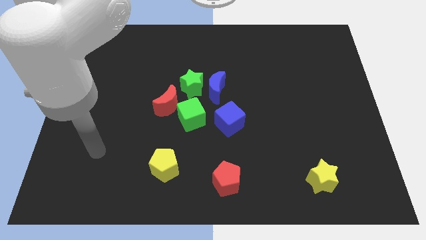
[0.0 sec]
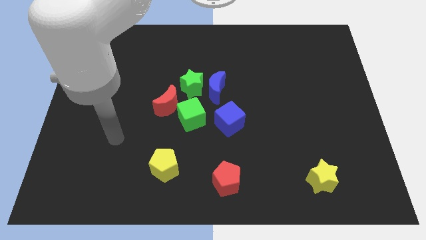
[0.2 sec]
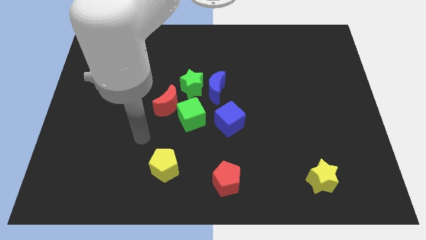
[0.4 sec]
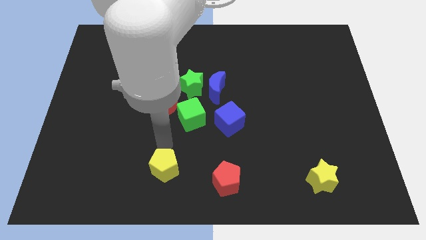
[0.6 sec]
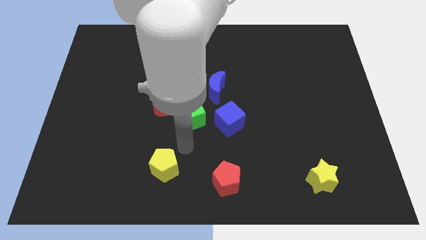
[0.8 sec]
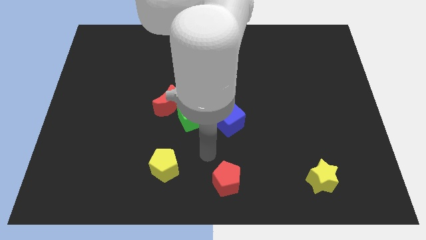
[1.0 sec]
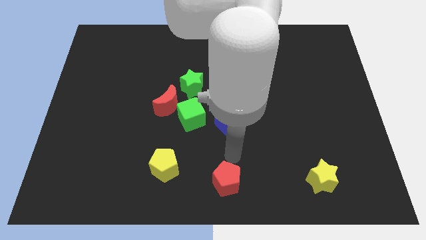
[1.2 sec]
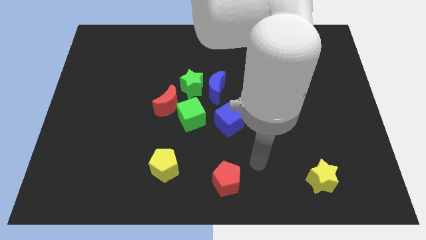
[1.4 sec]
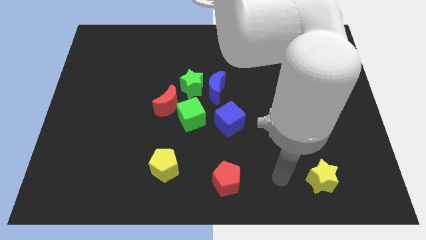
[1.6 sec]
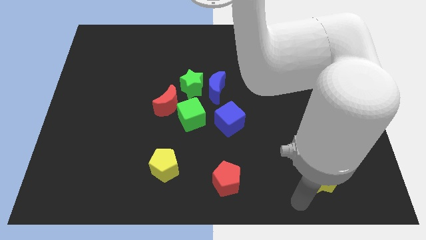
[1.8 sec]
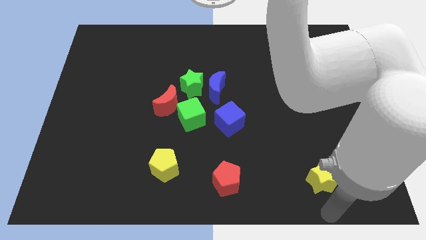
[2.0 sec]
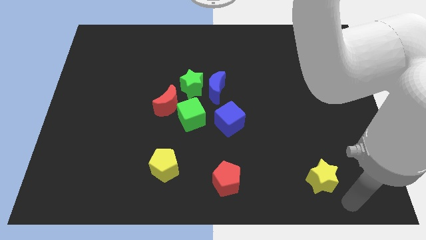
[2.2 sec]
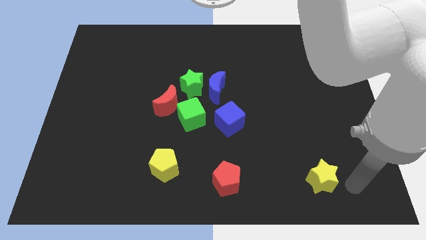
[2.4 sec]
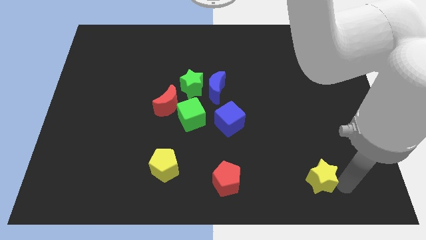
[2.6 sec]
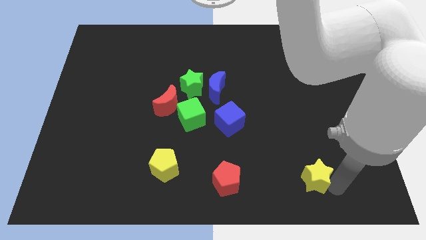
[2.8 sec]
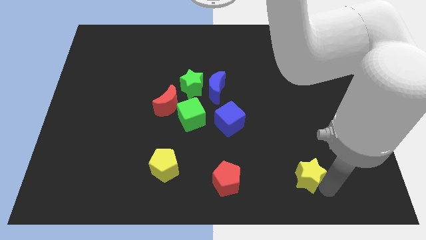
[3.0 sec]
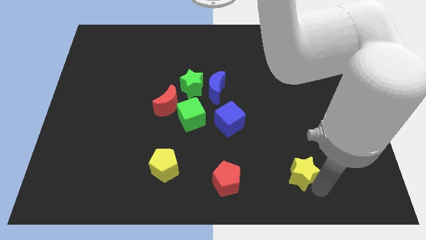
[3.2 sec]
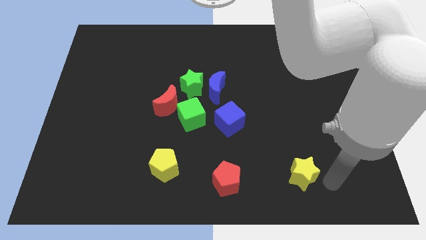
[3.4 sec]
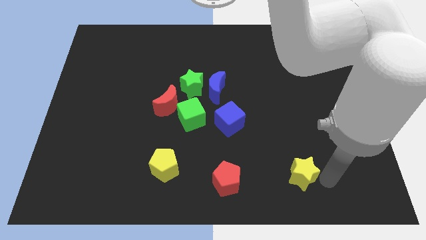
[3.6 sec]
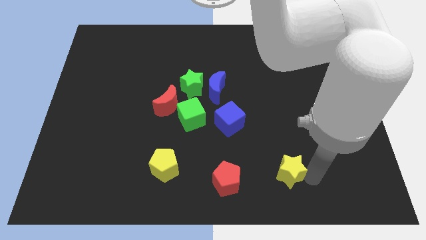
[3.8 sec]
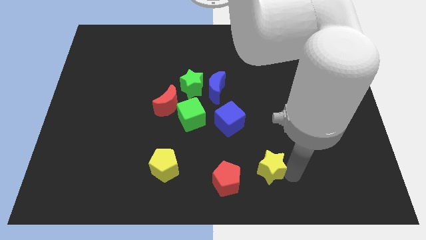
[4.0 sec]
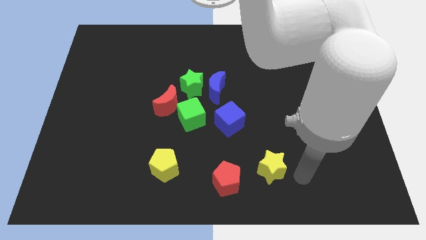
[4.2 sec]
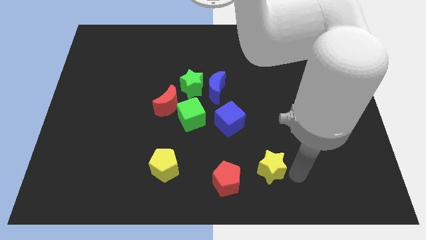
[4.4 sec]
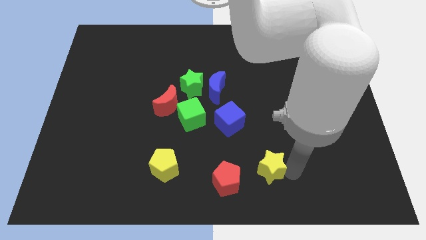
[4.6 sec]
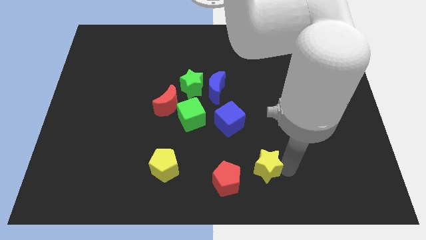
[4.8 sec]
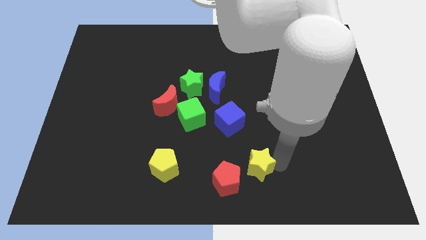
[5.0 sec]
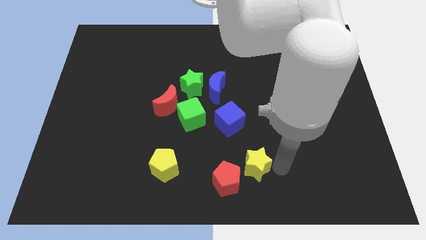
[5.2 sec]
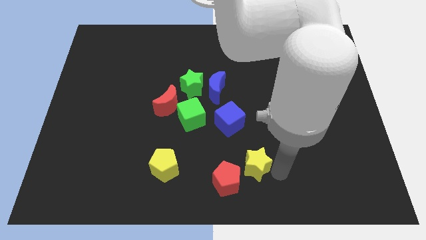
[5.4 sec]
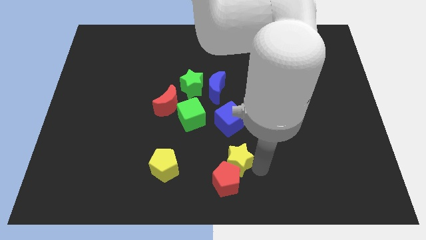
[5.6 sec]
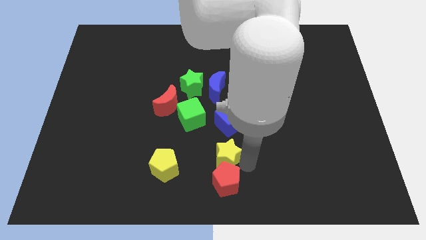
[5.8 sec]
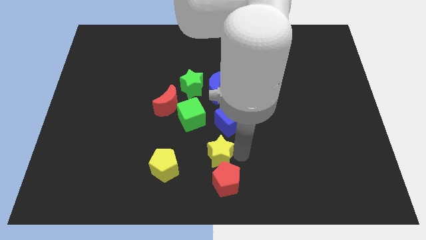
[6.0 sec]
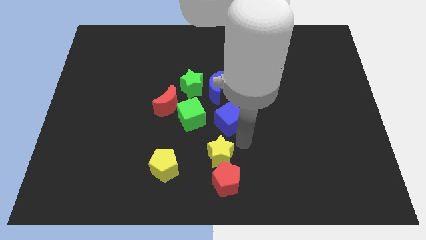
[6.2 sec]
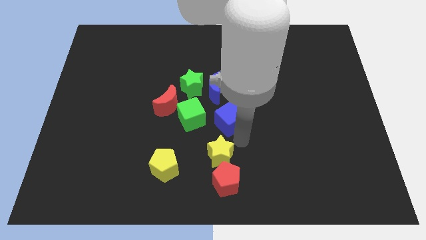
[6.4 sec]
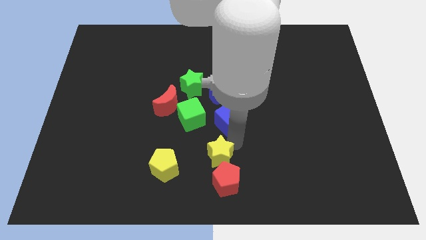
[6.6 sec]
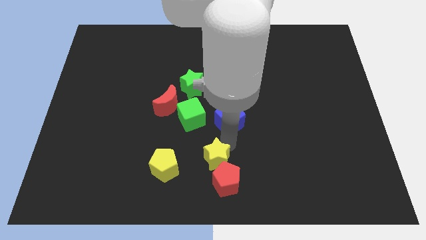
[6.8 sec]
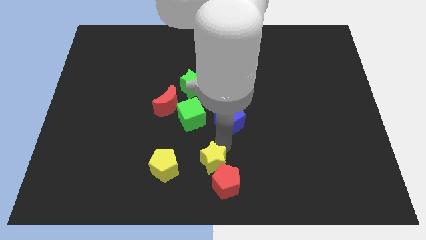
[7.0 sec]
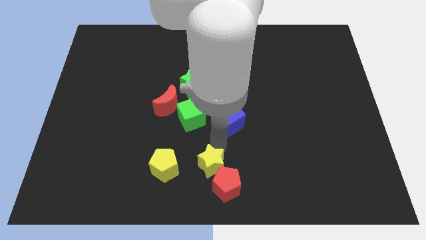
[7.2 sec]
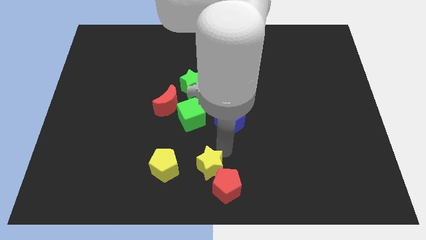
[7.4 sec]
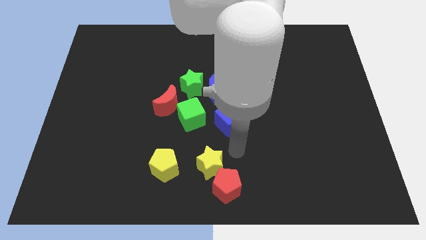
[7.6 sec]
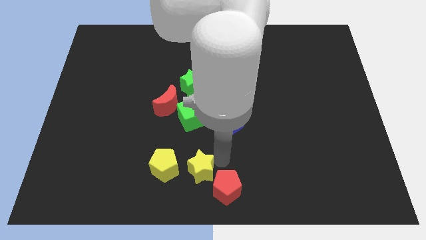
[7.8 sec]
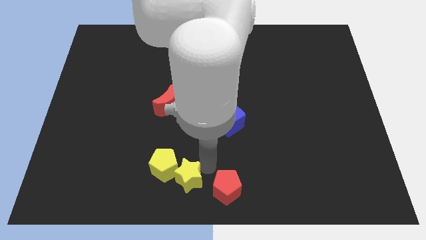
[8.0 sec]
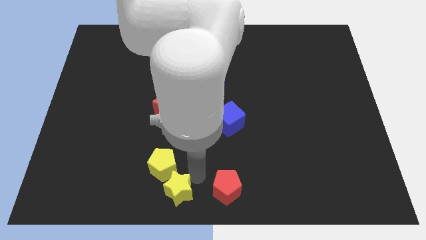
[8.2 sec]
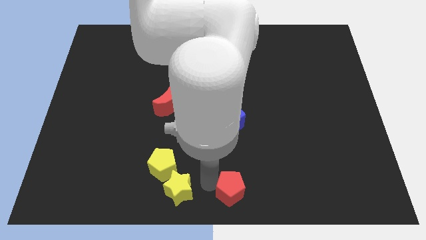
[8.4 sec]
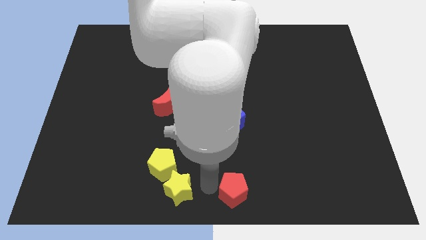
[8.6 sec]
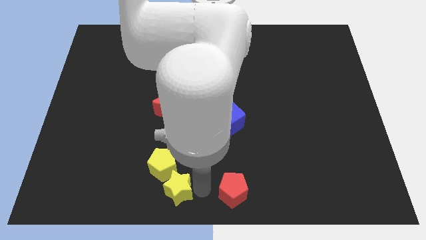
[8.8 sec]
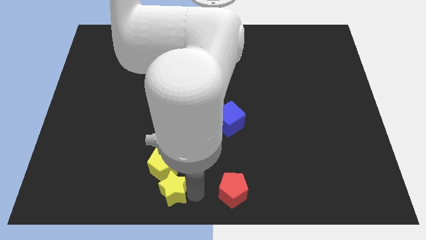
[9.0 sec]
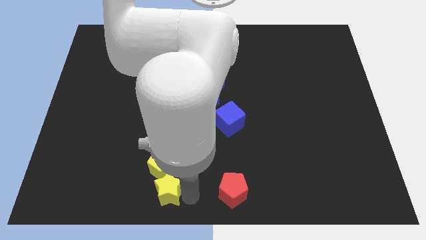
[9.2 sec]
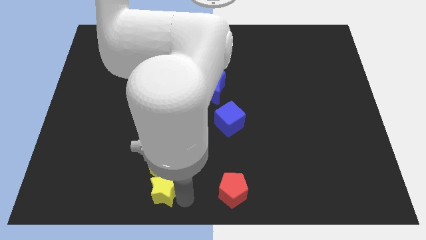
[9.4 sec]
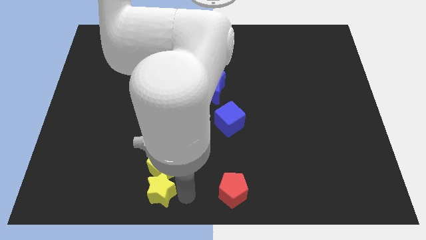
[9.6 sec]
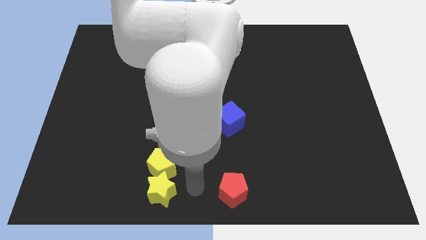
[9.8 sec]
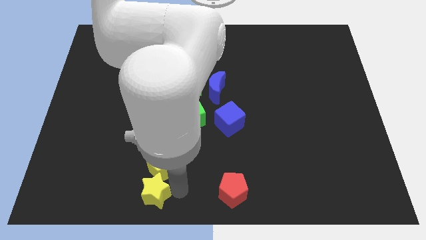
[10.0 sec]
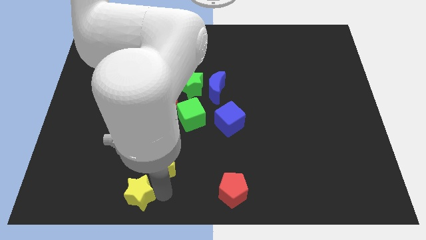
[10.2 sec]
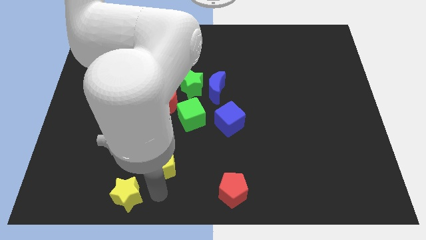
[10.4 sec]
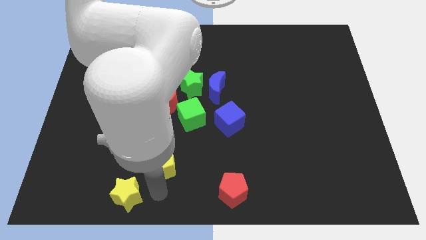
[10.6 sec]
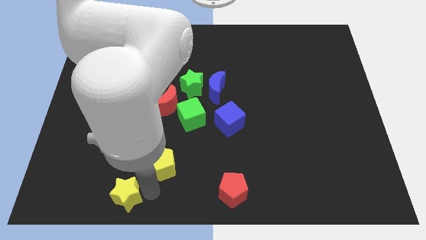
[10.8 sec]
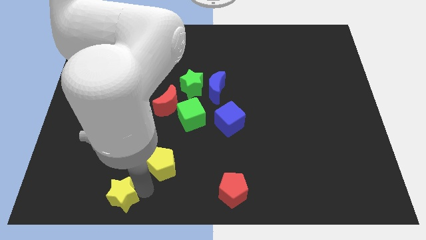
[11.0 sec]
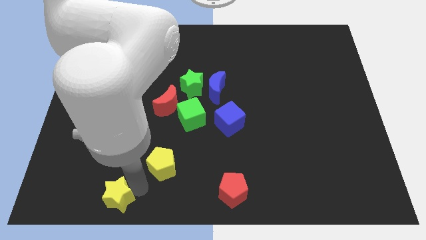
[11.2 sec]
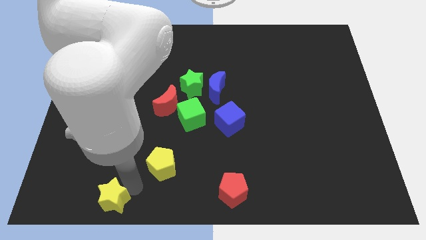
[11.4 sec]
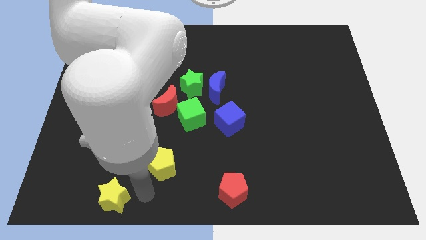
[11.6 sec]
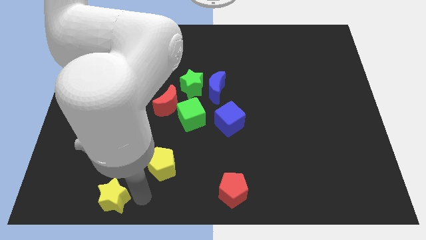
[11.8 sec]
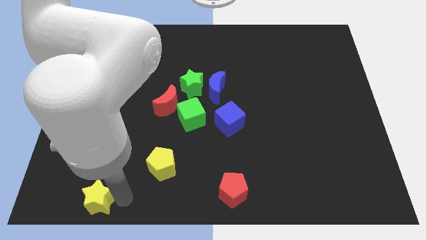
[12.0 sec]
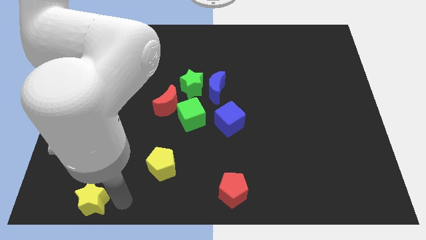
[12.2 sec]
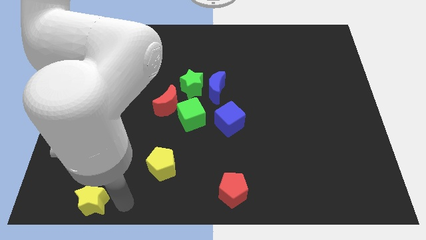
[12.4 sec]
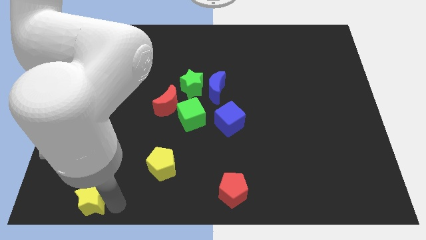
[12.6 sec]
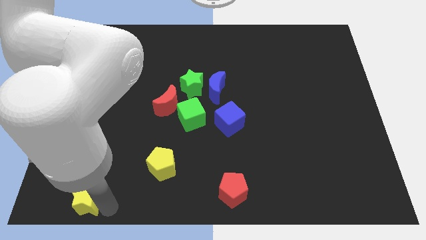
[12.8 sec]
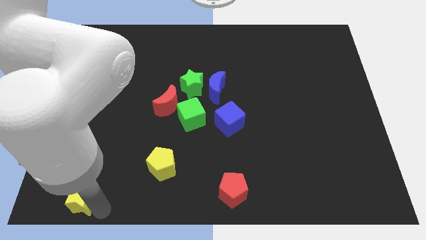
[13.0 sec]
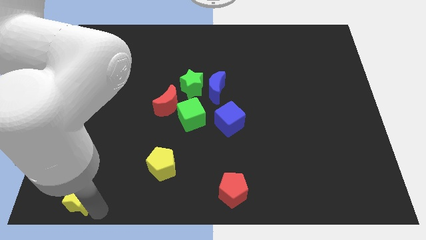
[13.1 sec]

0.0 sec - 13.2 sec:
move the yellow star to the bottom left corner

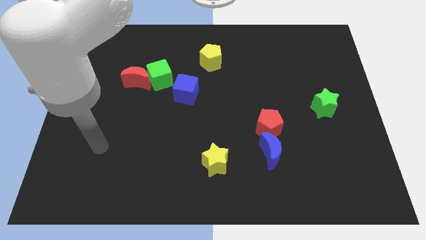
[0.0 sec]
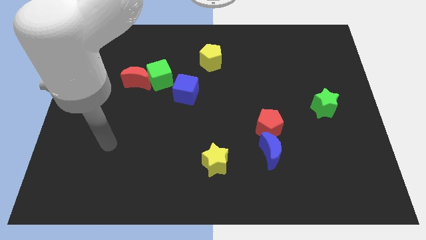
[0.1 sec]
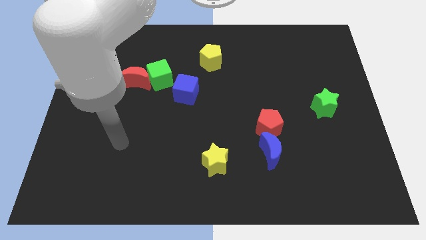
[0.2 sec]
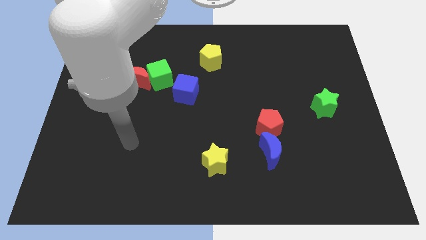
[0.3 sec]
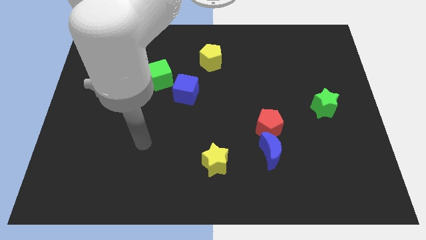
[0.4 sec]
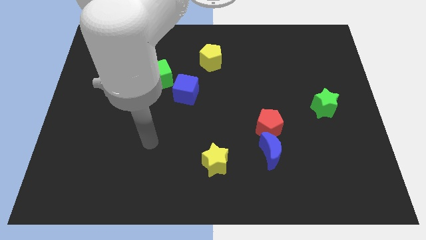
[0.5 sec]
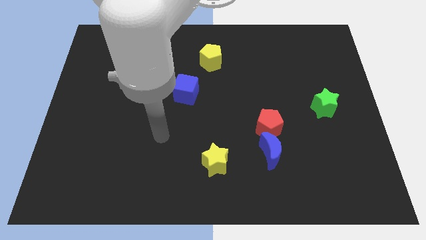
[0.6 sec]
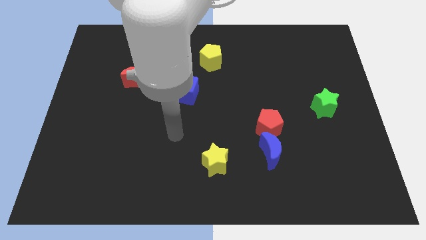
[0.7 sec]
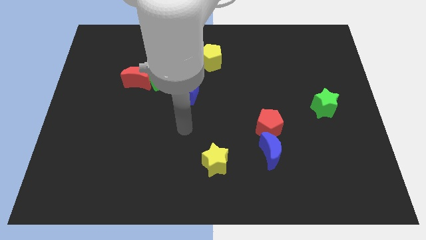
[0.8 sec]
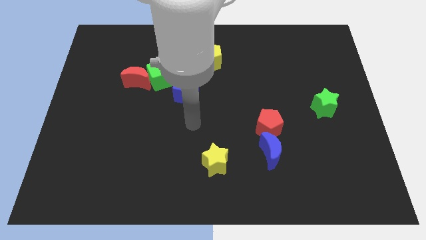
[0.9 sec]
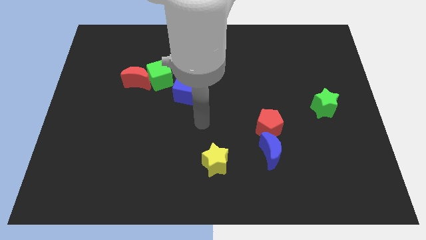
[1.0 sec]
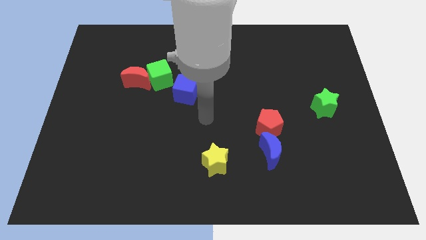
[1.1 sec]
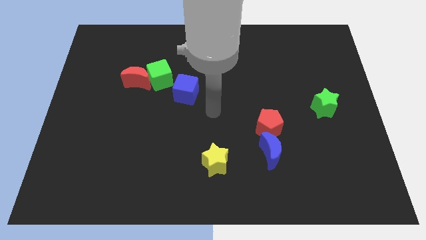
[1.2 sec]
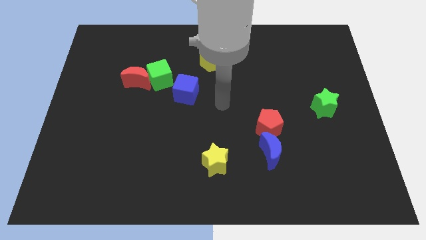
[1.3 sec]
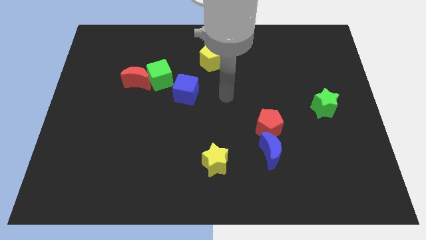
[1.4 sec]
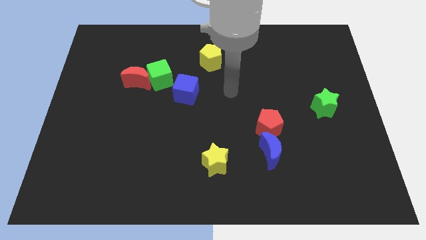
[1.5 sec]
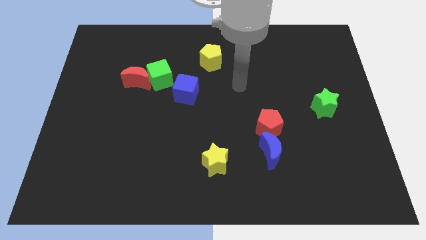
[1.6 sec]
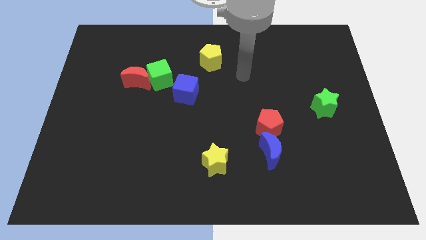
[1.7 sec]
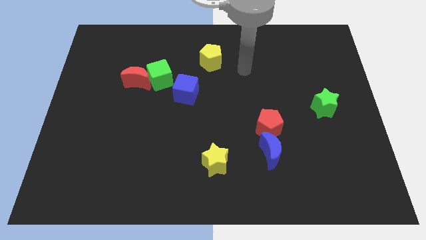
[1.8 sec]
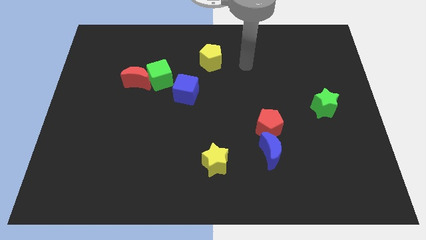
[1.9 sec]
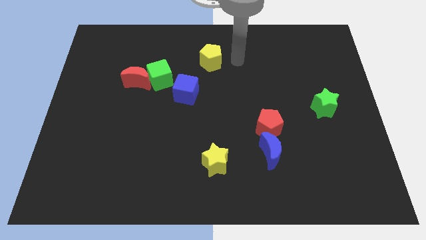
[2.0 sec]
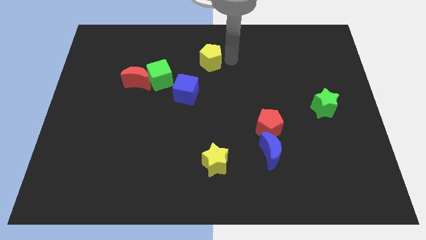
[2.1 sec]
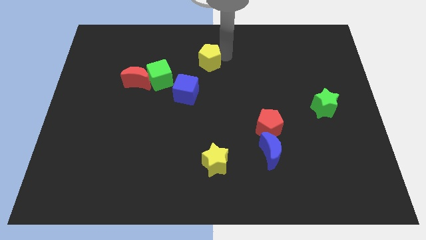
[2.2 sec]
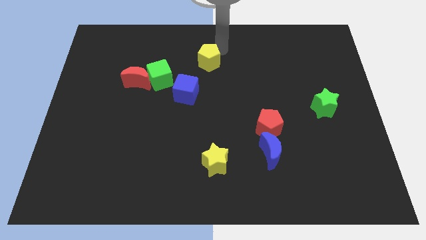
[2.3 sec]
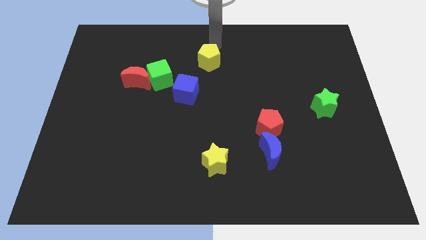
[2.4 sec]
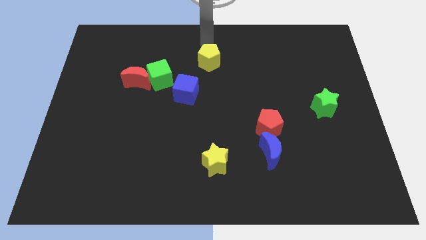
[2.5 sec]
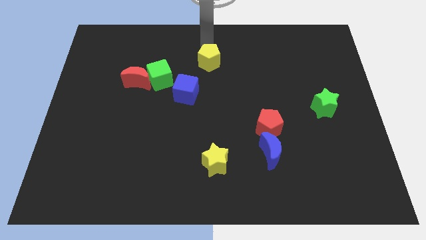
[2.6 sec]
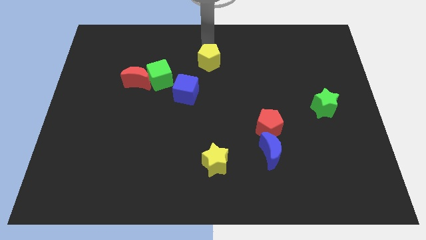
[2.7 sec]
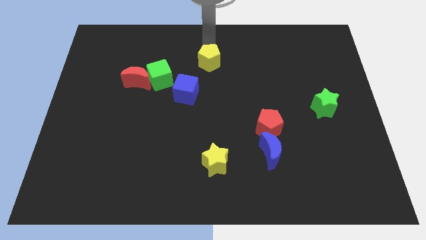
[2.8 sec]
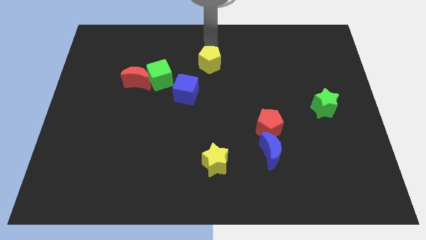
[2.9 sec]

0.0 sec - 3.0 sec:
move the yellow pentagon to the center of the board
